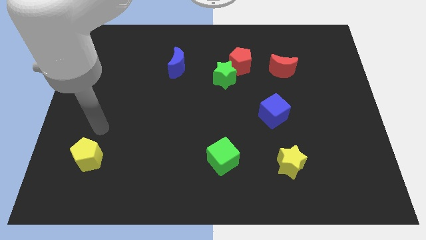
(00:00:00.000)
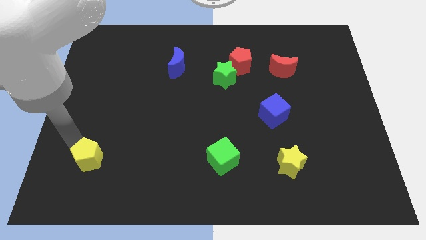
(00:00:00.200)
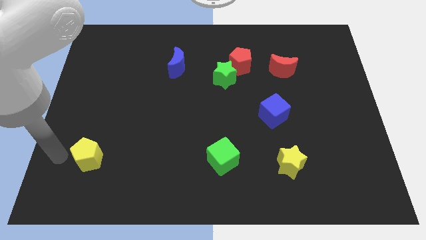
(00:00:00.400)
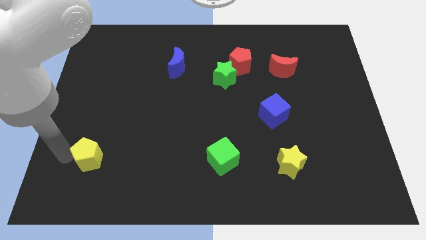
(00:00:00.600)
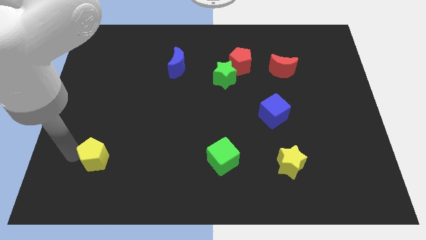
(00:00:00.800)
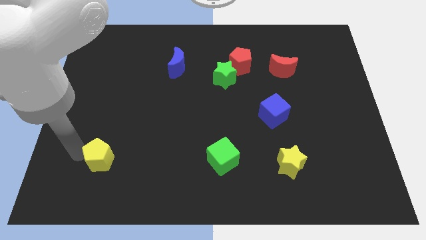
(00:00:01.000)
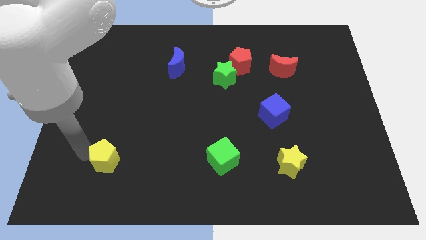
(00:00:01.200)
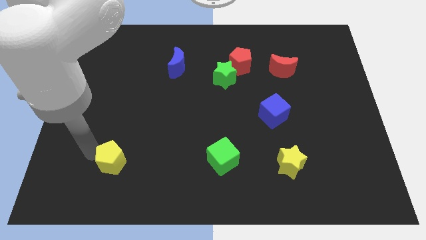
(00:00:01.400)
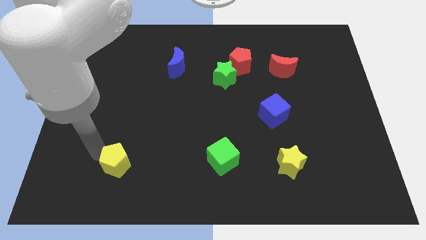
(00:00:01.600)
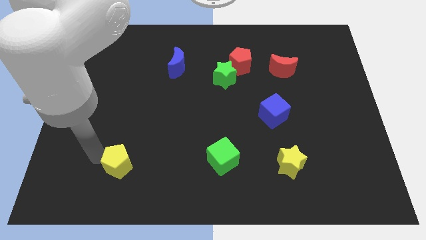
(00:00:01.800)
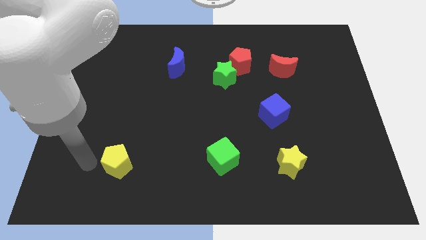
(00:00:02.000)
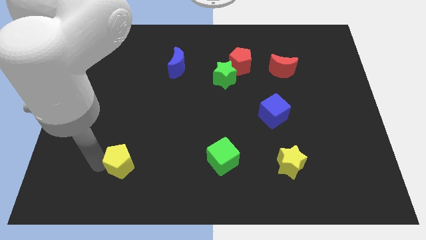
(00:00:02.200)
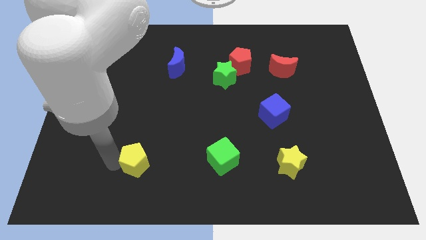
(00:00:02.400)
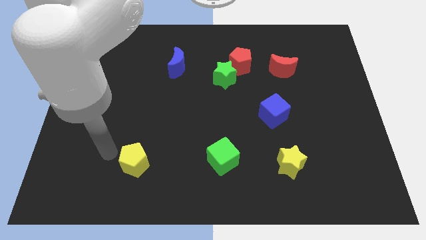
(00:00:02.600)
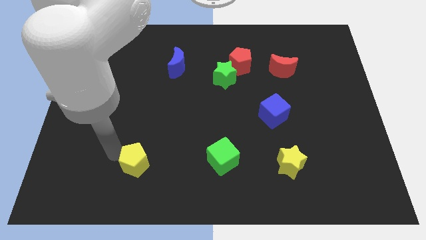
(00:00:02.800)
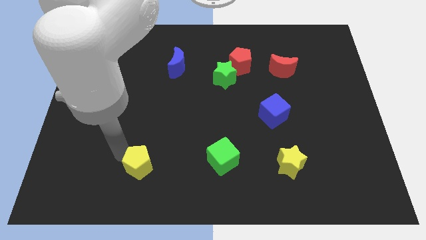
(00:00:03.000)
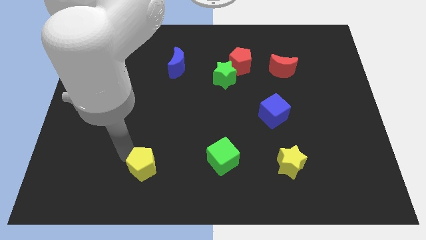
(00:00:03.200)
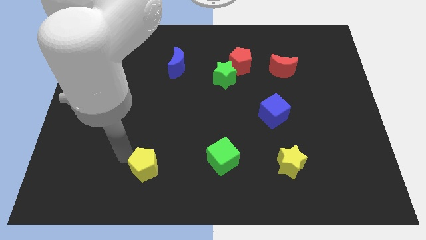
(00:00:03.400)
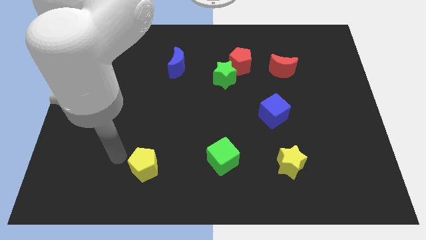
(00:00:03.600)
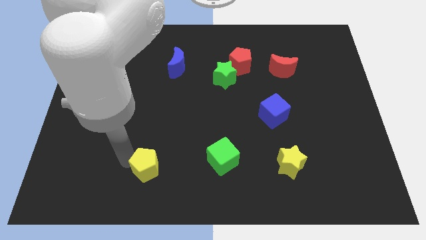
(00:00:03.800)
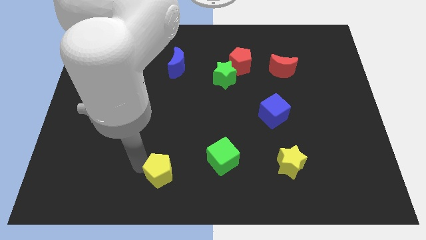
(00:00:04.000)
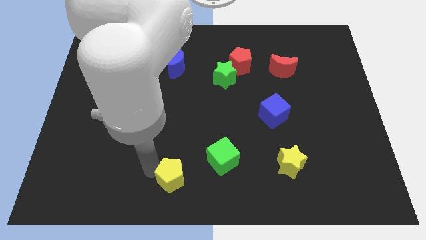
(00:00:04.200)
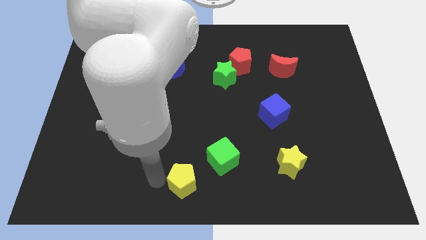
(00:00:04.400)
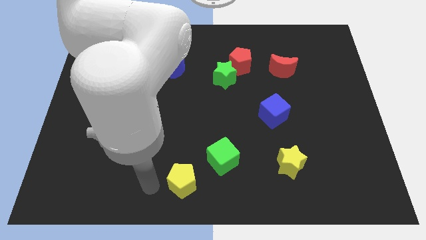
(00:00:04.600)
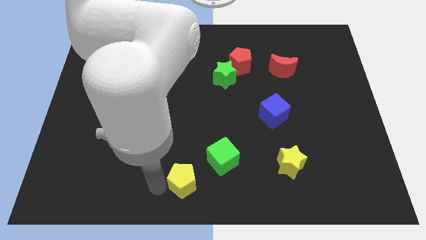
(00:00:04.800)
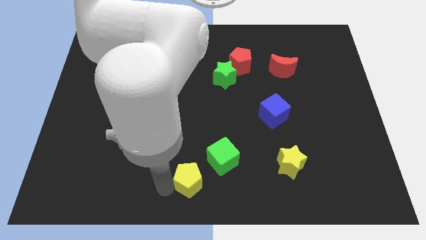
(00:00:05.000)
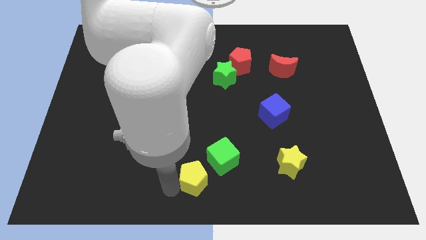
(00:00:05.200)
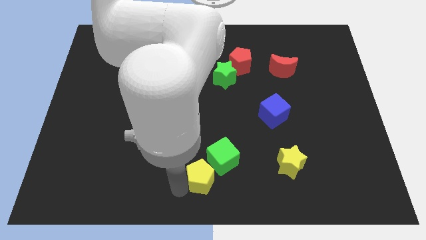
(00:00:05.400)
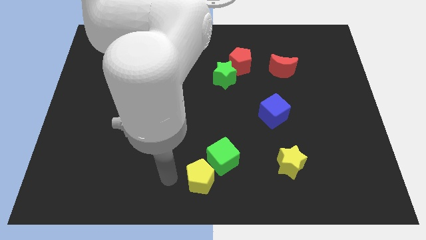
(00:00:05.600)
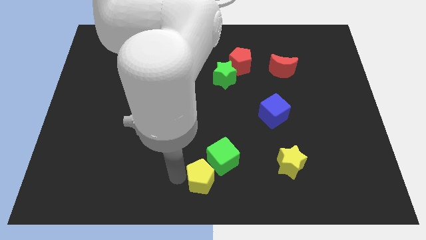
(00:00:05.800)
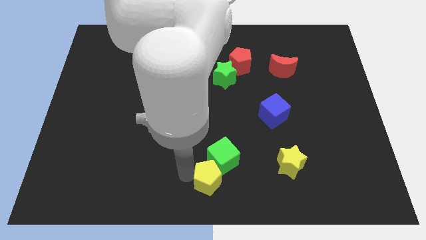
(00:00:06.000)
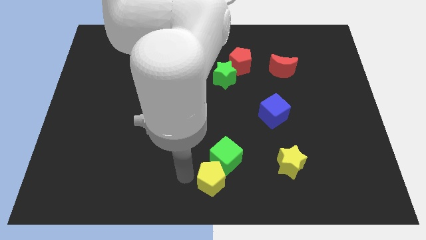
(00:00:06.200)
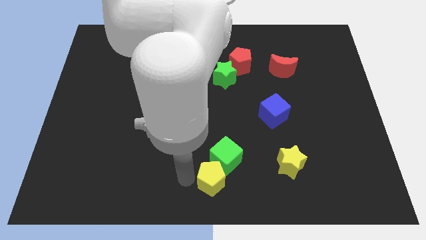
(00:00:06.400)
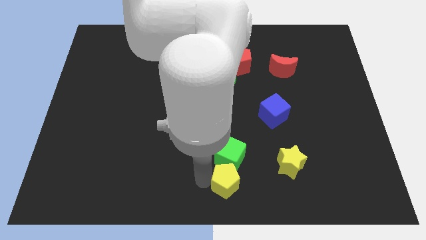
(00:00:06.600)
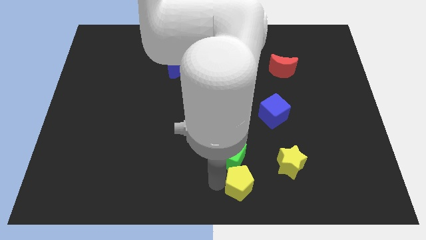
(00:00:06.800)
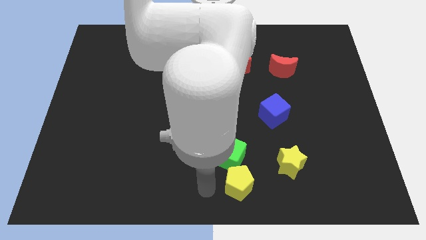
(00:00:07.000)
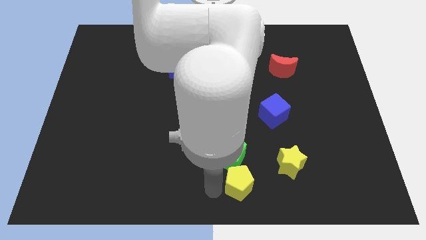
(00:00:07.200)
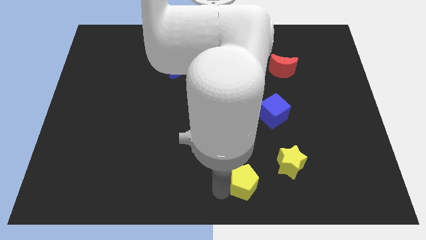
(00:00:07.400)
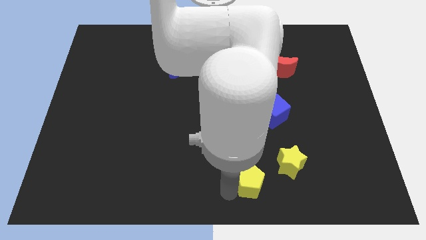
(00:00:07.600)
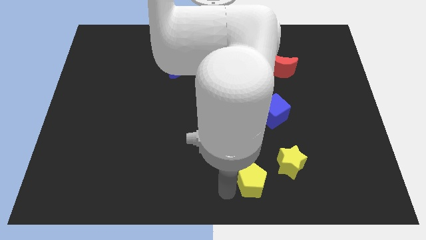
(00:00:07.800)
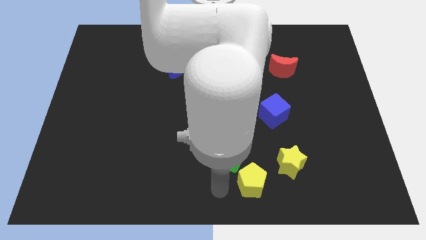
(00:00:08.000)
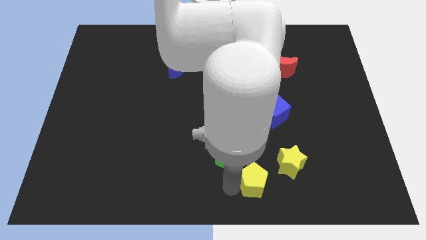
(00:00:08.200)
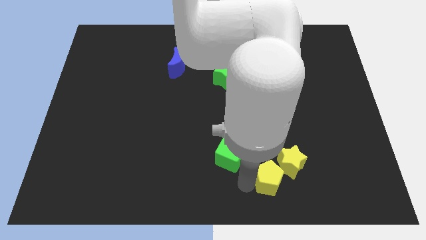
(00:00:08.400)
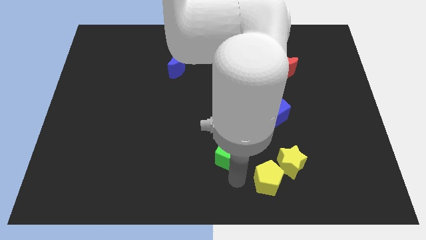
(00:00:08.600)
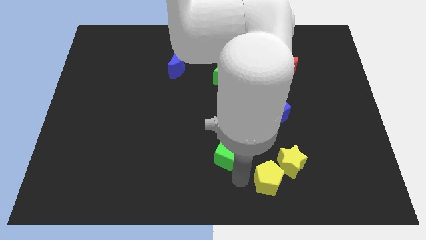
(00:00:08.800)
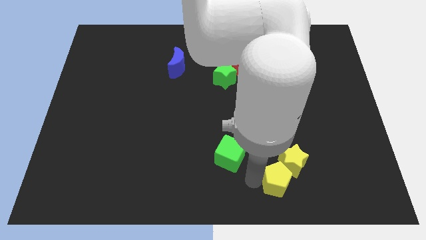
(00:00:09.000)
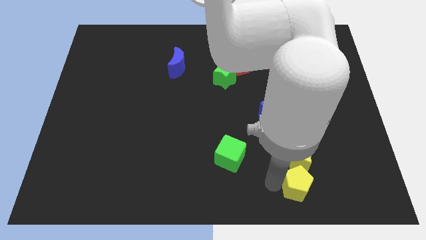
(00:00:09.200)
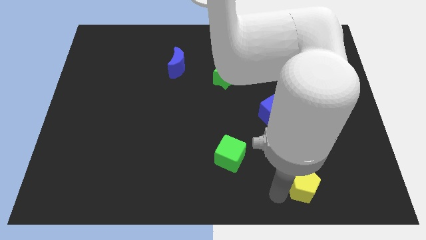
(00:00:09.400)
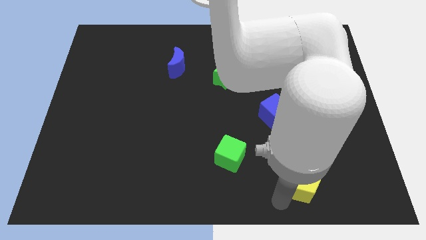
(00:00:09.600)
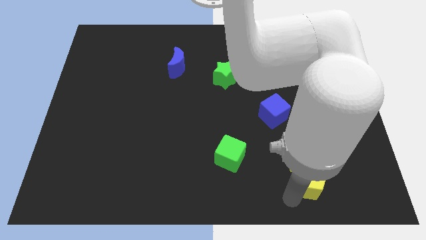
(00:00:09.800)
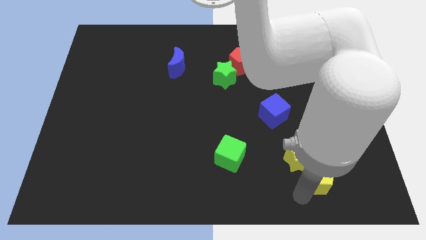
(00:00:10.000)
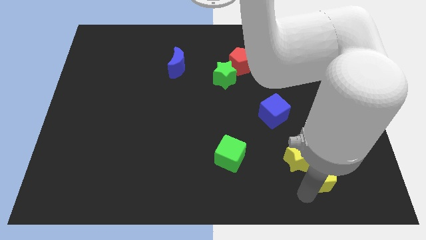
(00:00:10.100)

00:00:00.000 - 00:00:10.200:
move the yellow pentagon right of the yellow star

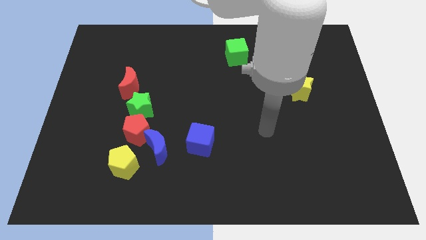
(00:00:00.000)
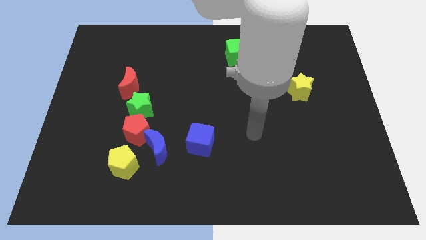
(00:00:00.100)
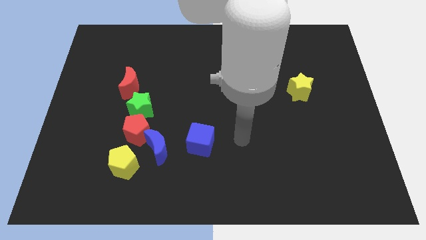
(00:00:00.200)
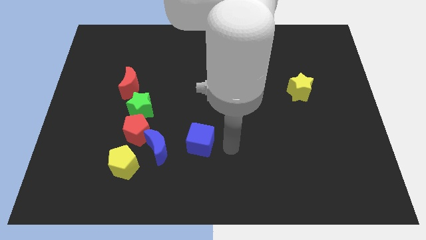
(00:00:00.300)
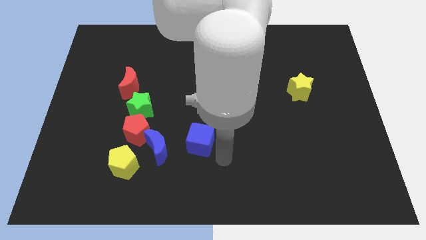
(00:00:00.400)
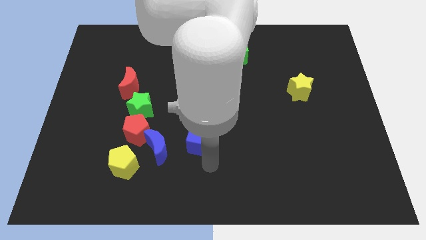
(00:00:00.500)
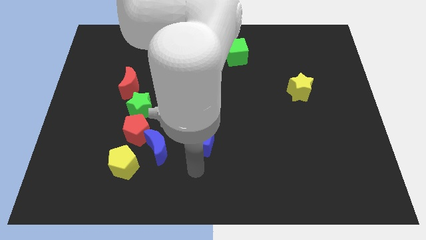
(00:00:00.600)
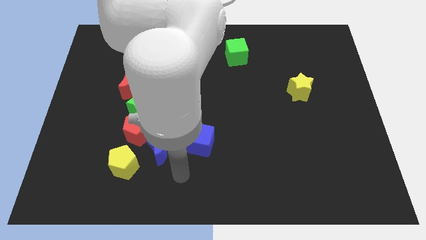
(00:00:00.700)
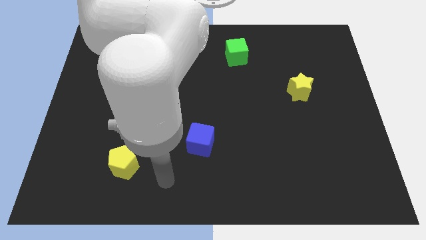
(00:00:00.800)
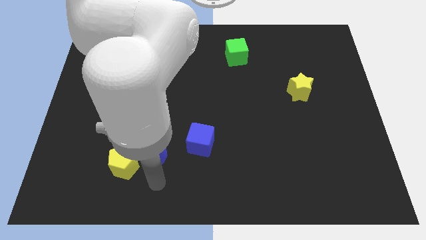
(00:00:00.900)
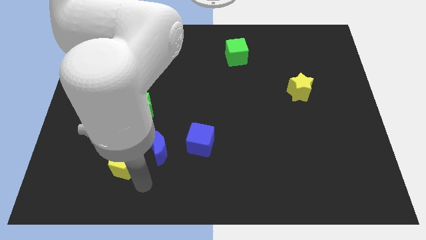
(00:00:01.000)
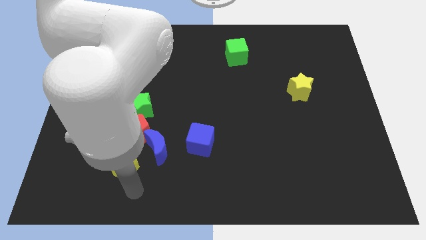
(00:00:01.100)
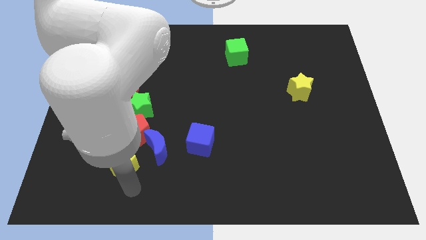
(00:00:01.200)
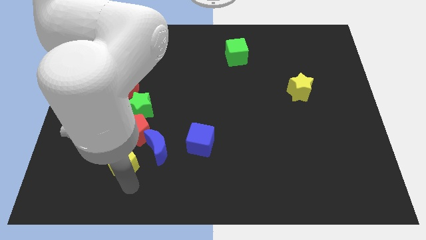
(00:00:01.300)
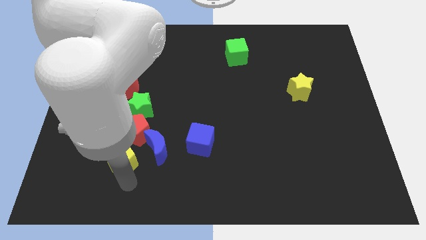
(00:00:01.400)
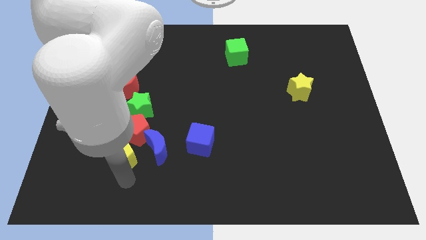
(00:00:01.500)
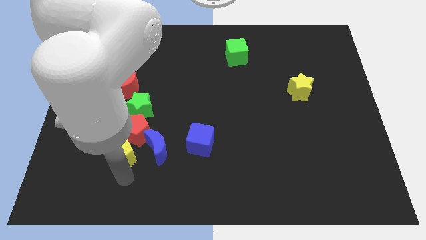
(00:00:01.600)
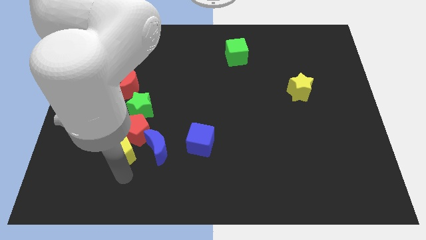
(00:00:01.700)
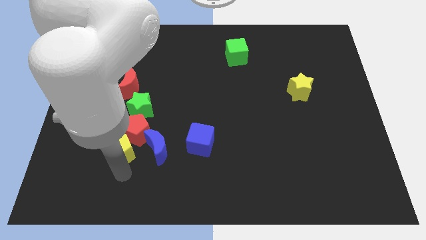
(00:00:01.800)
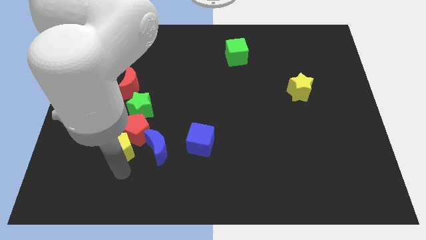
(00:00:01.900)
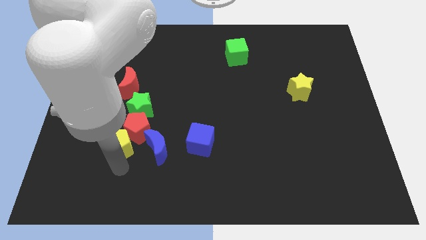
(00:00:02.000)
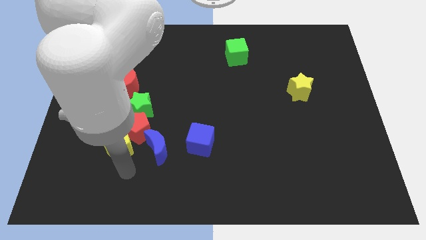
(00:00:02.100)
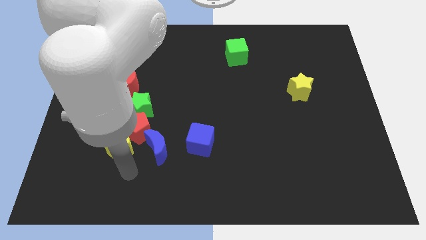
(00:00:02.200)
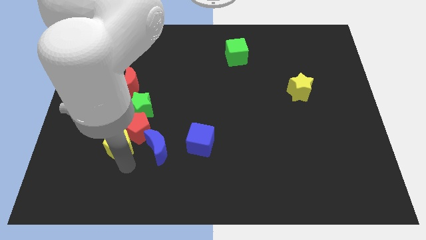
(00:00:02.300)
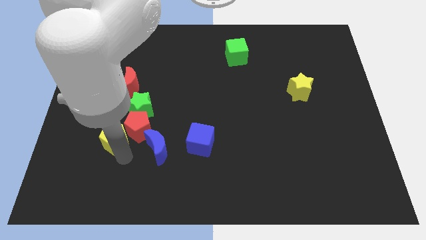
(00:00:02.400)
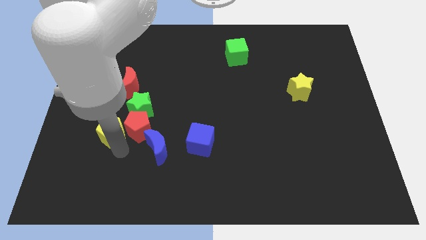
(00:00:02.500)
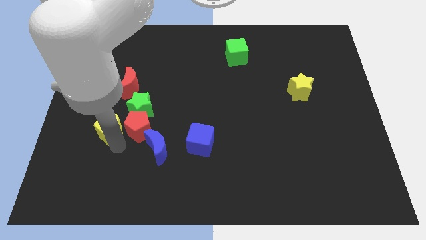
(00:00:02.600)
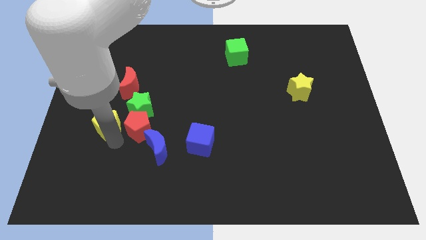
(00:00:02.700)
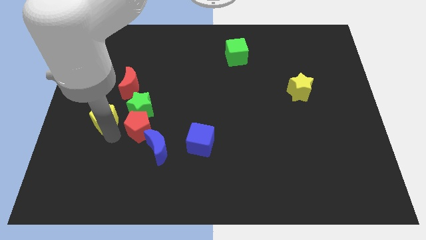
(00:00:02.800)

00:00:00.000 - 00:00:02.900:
push the yellow pentagon to the bottom left side of the red moon

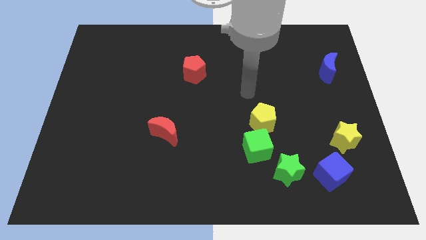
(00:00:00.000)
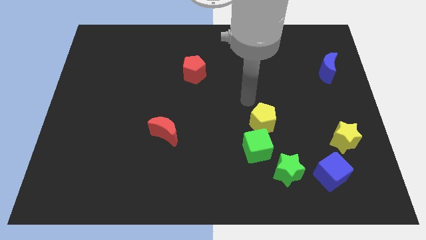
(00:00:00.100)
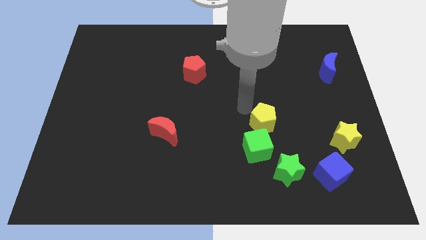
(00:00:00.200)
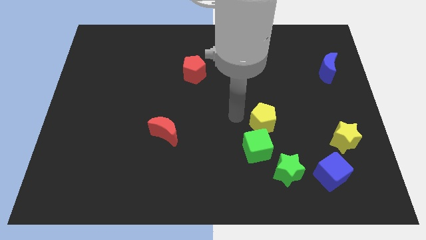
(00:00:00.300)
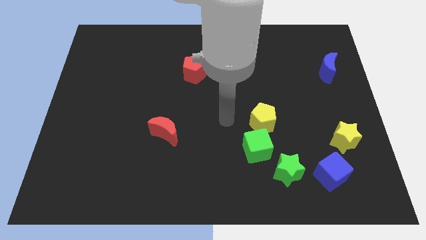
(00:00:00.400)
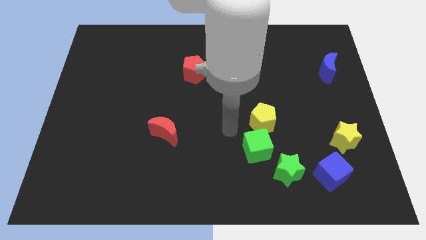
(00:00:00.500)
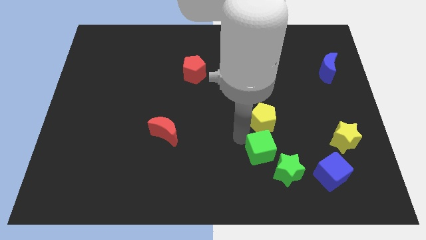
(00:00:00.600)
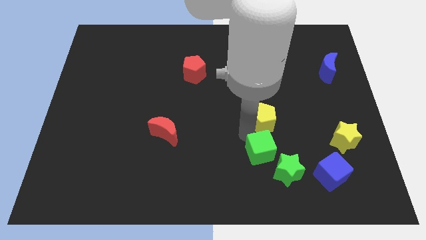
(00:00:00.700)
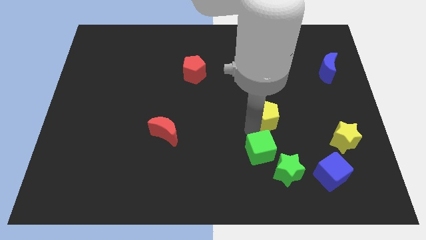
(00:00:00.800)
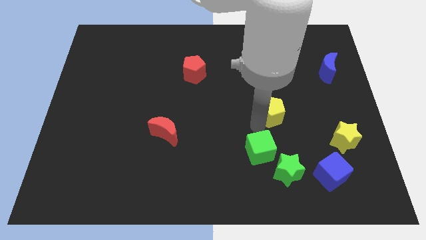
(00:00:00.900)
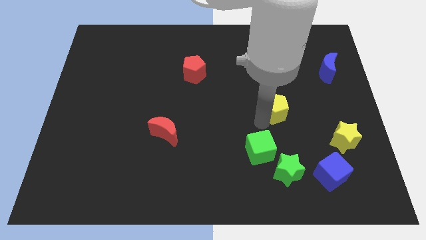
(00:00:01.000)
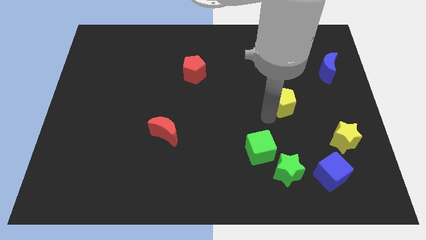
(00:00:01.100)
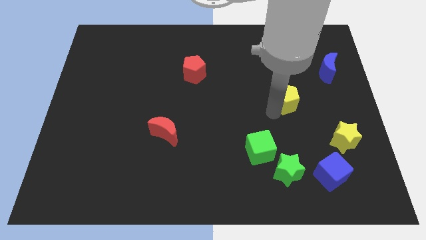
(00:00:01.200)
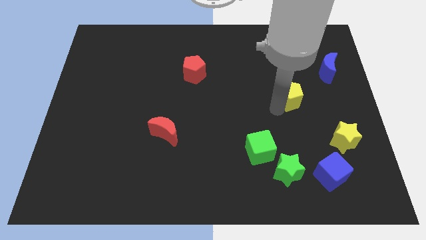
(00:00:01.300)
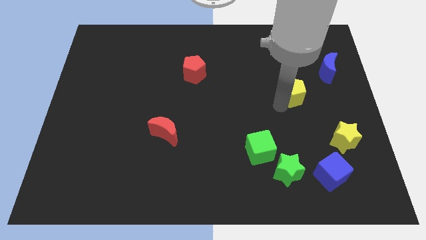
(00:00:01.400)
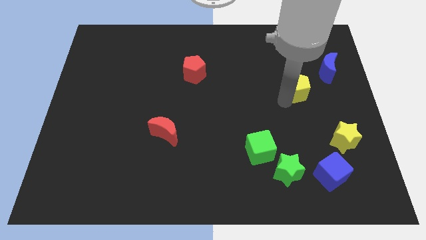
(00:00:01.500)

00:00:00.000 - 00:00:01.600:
push the yellow pentagon to the bottom left of the blue moon
